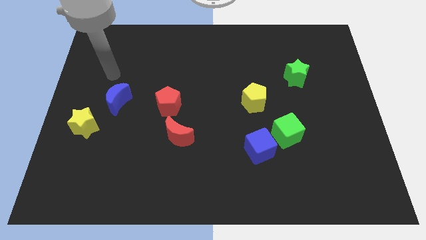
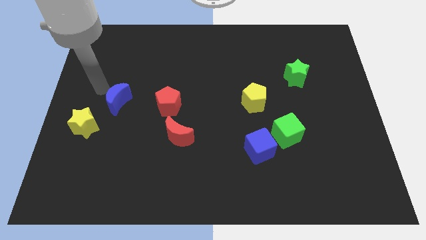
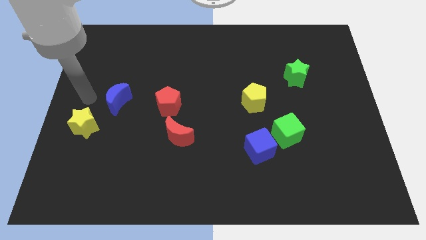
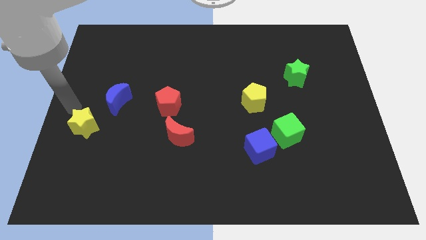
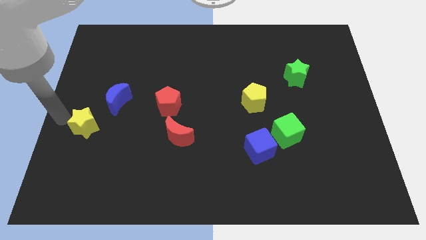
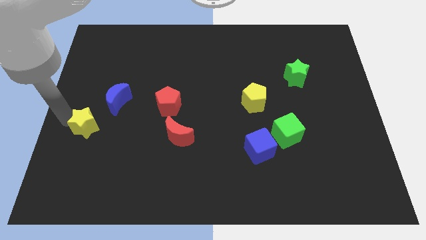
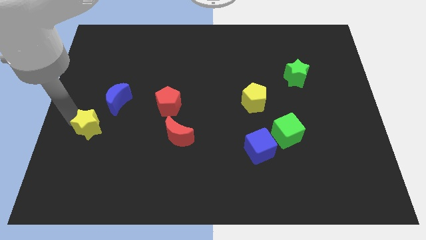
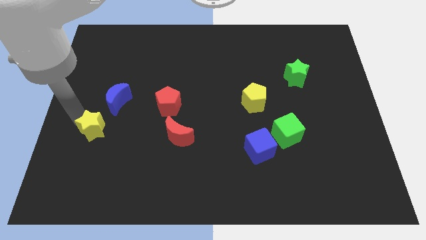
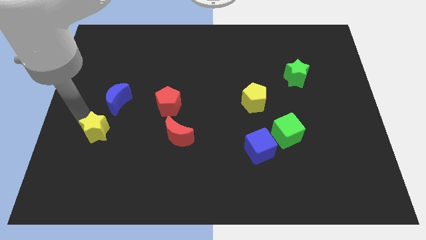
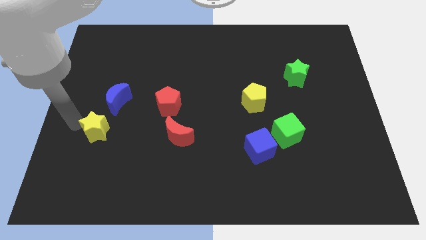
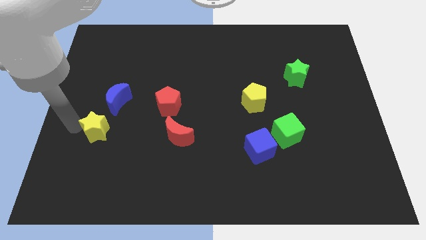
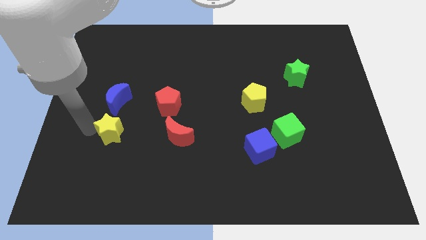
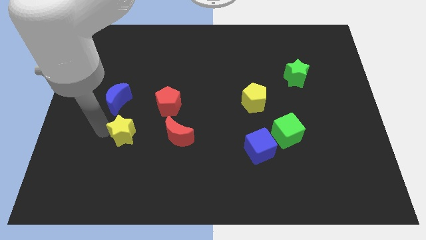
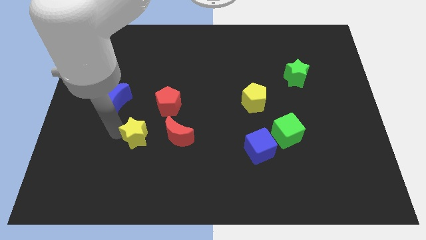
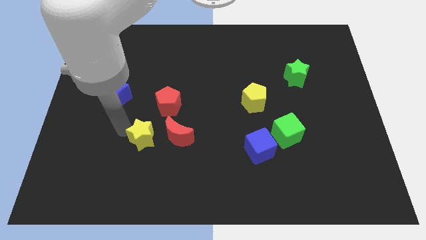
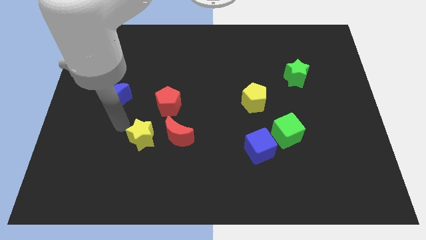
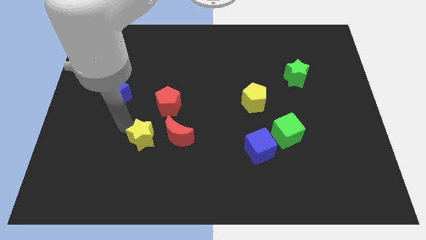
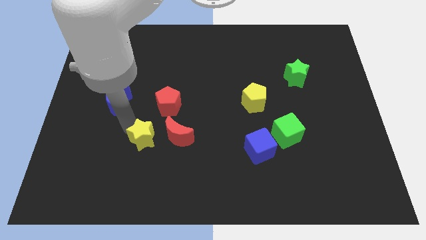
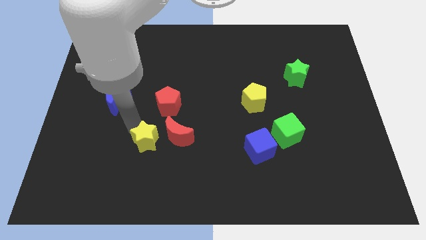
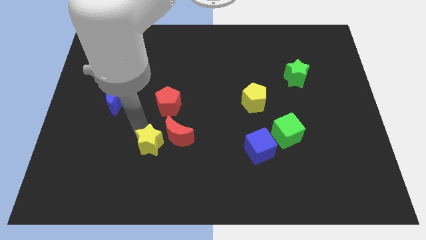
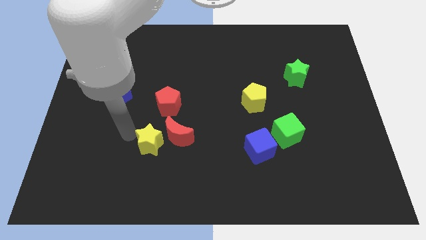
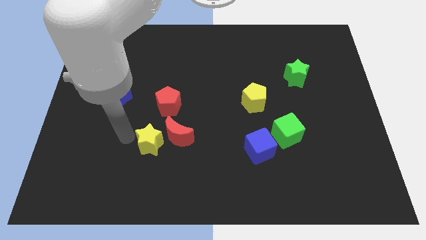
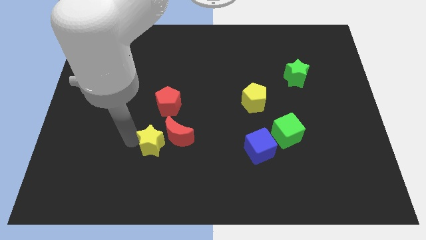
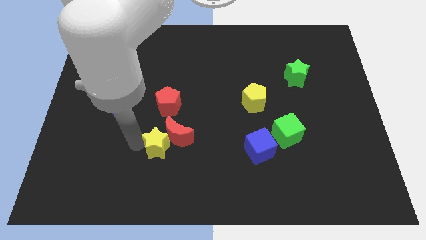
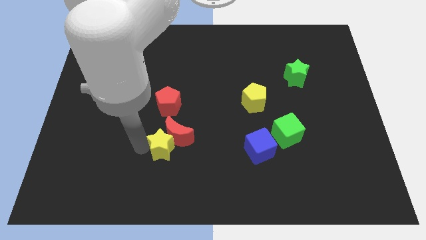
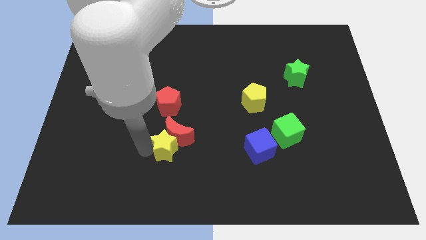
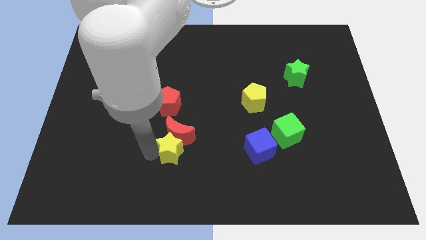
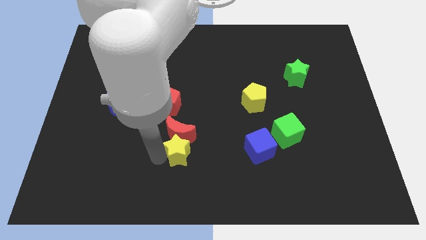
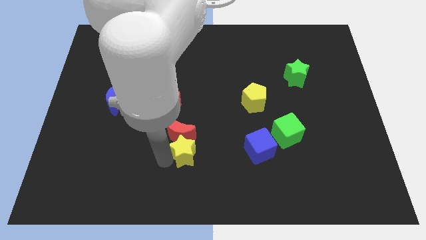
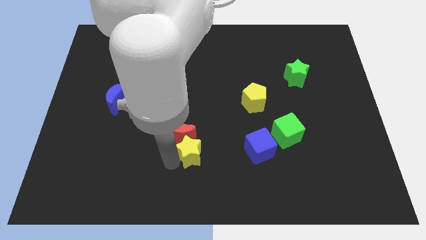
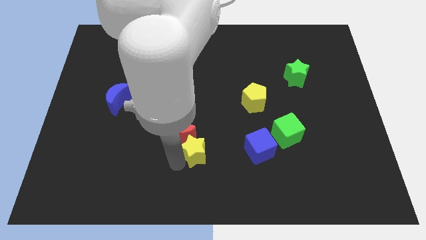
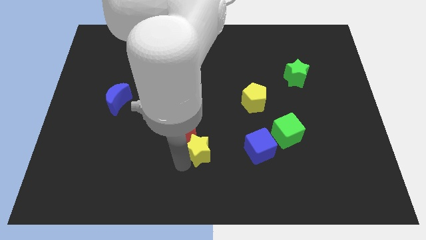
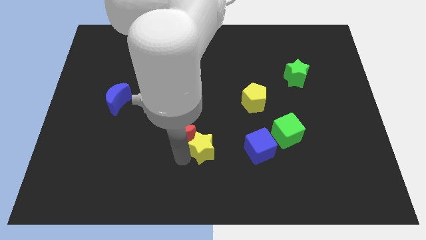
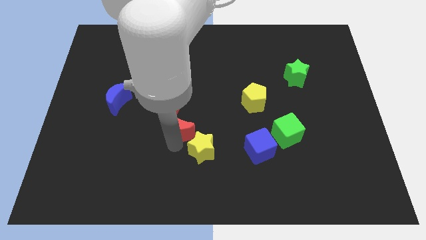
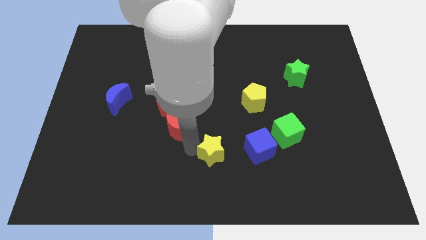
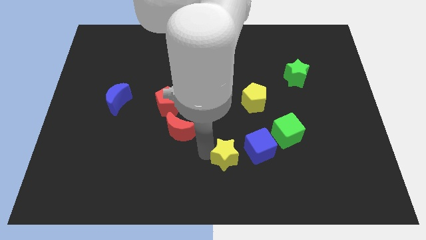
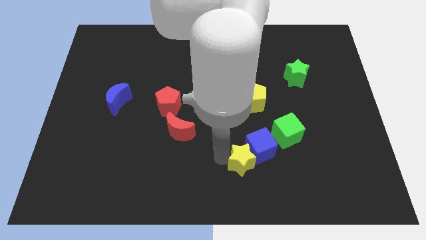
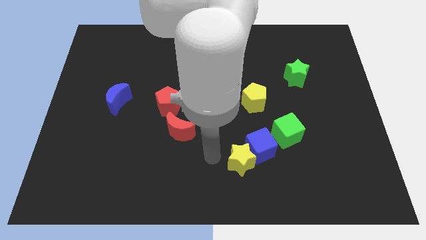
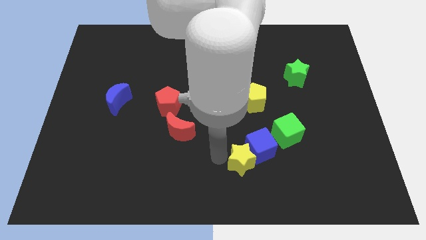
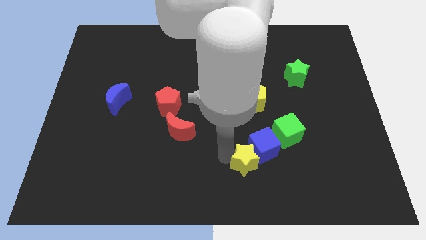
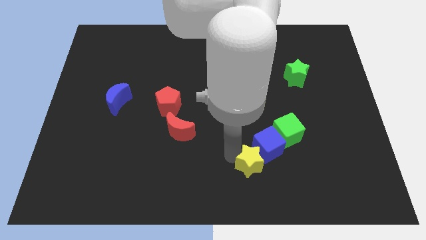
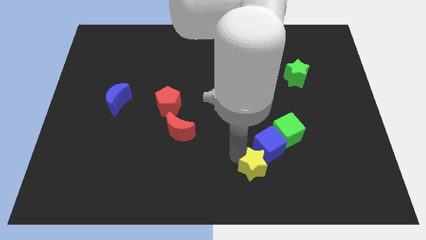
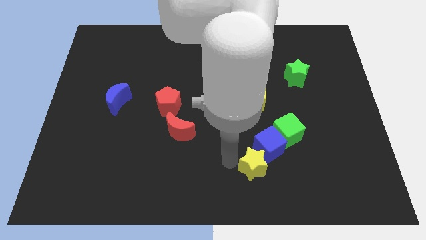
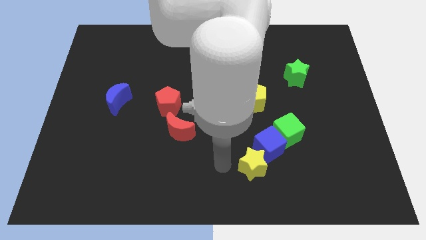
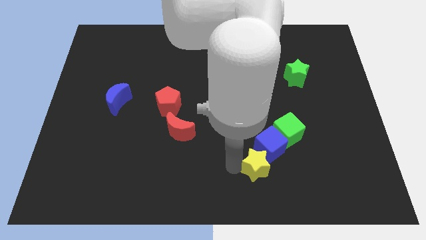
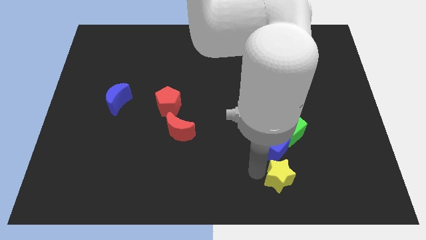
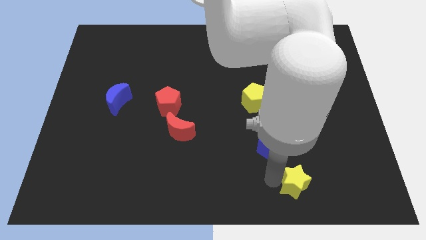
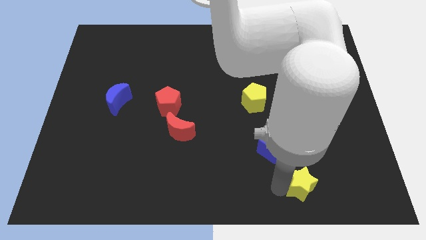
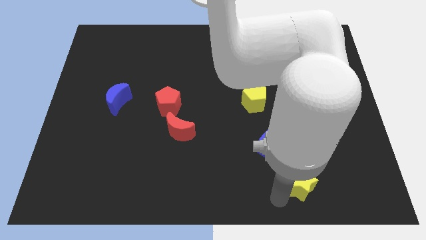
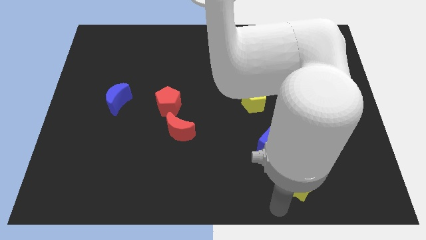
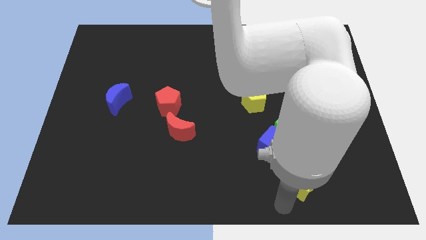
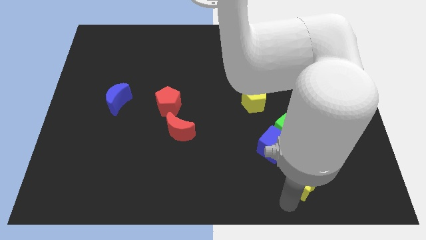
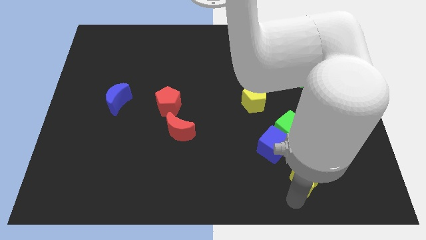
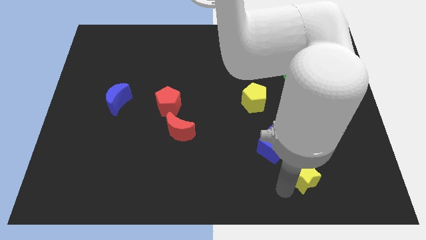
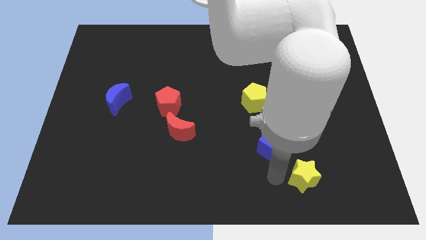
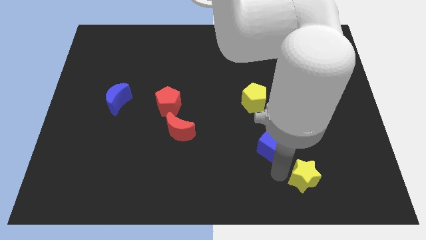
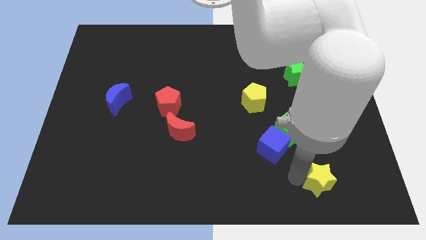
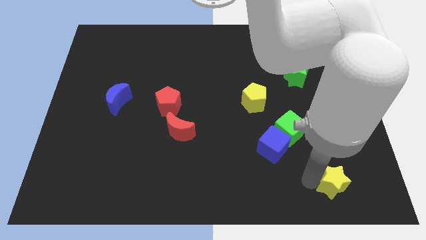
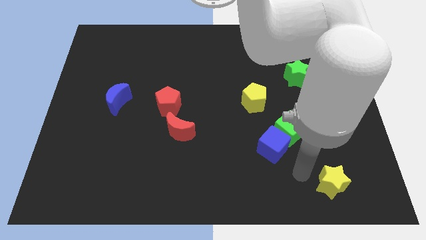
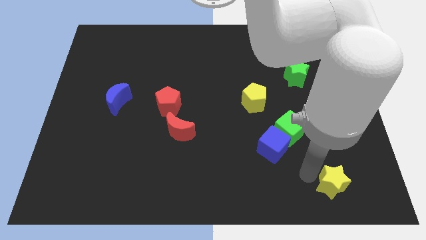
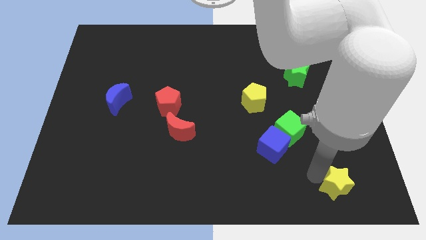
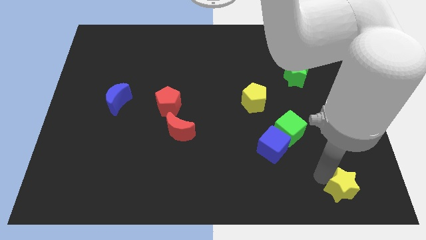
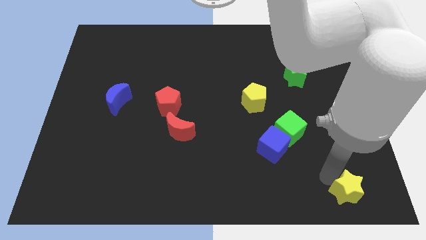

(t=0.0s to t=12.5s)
push the yellow star to the bottom right
